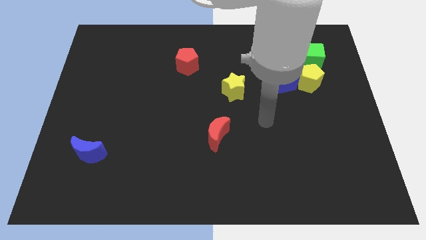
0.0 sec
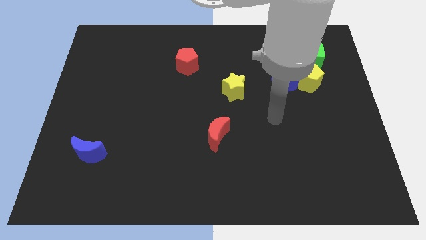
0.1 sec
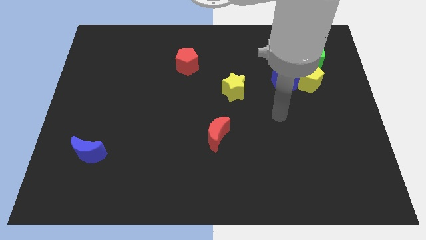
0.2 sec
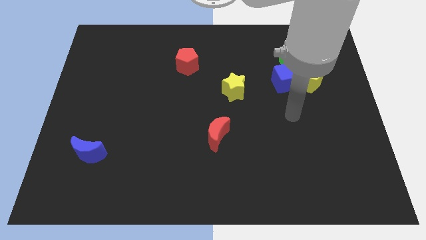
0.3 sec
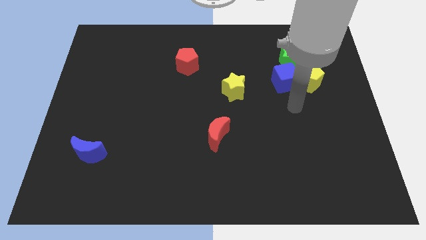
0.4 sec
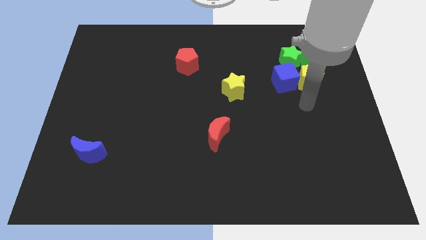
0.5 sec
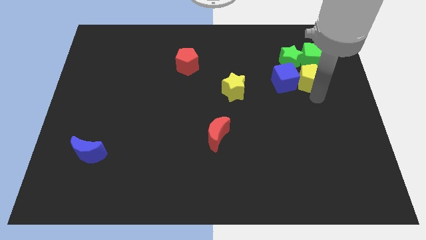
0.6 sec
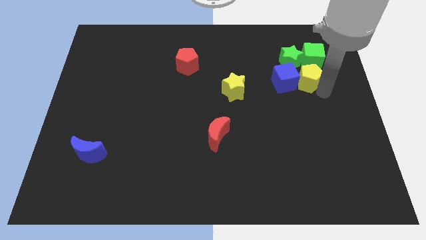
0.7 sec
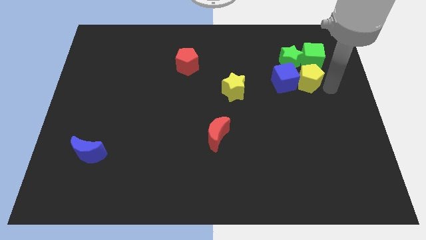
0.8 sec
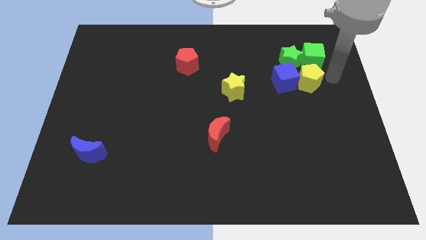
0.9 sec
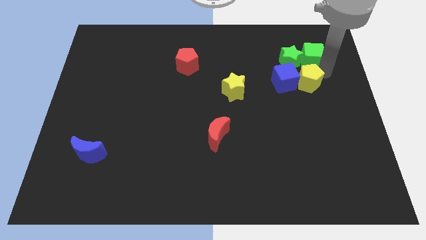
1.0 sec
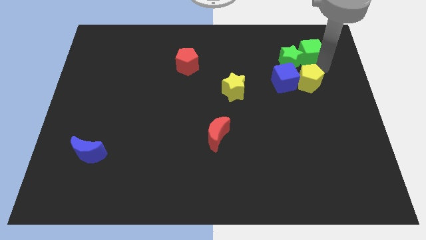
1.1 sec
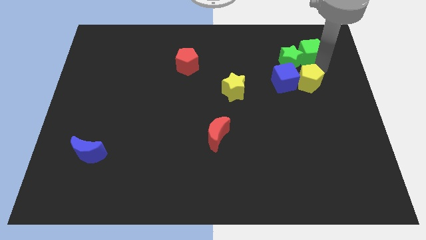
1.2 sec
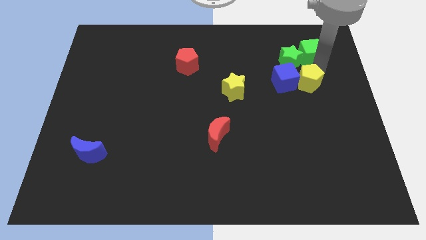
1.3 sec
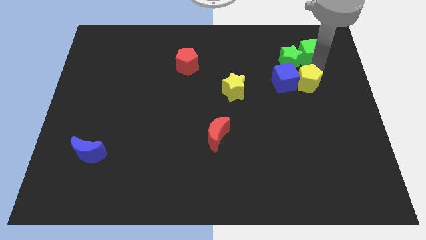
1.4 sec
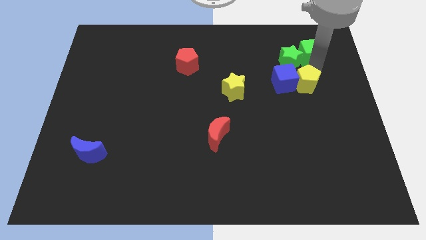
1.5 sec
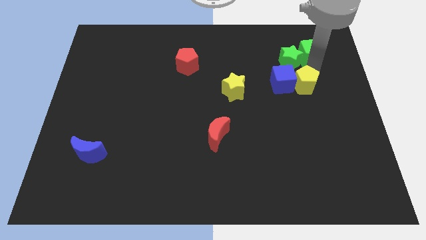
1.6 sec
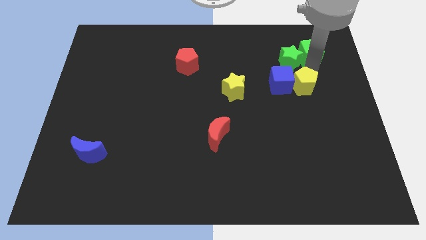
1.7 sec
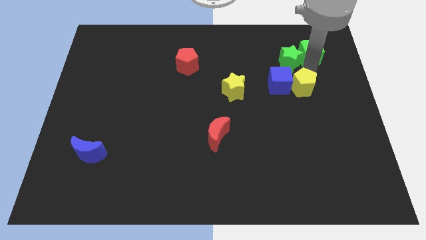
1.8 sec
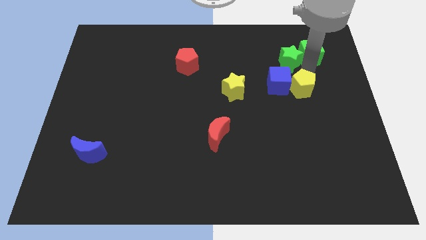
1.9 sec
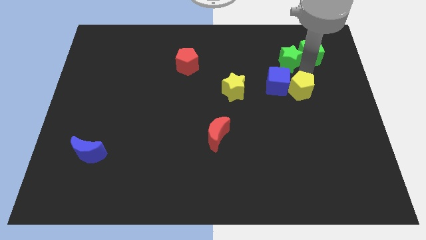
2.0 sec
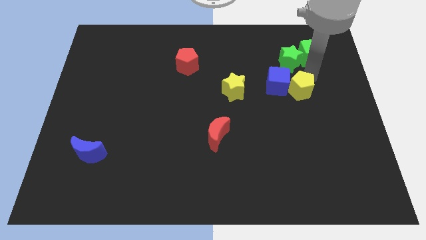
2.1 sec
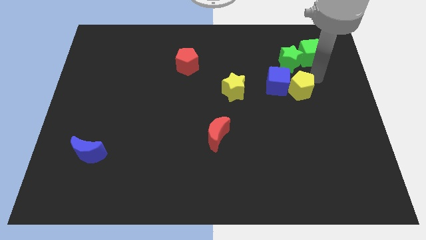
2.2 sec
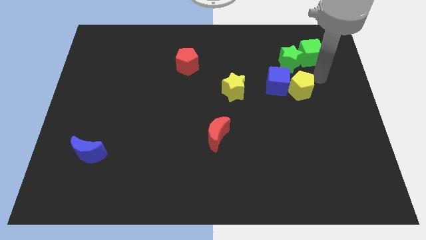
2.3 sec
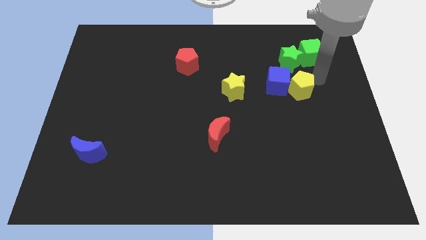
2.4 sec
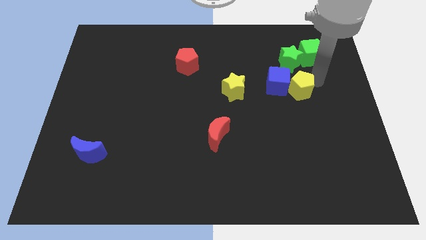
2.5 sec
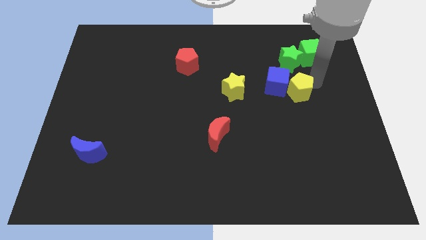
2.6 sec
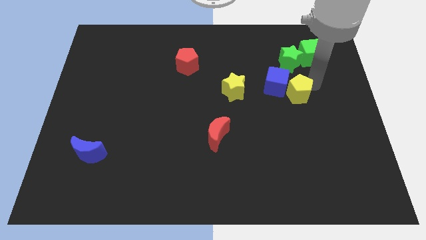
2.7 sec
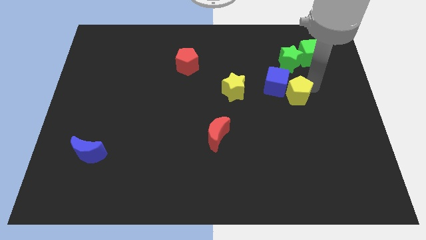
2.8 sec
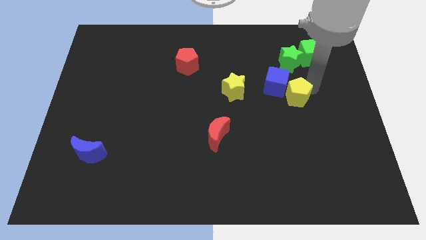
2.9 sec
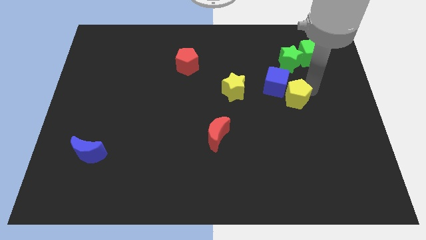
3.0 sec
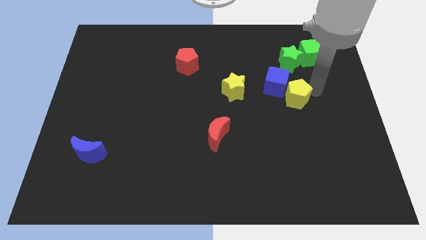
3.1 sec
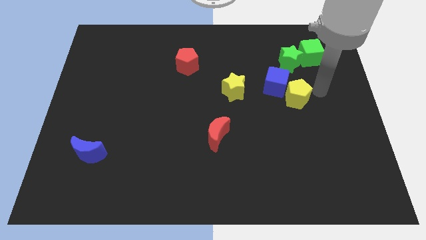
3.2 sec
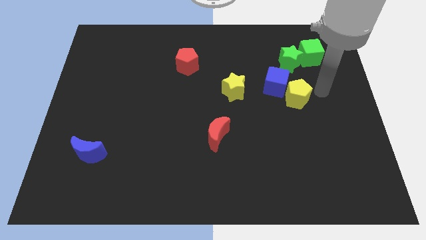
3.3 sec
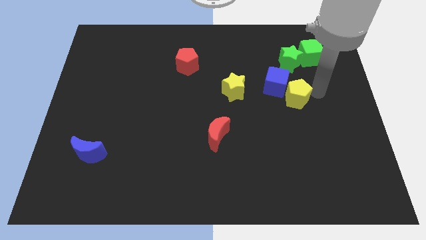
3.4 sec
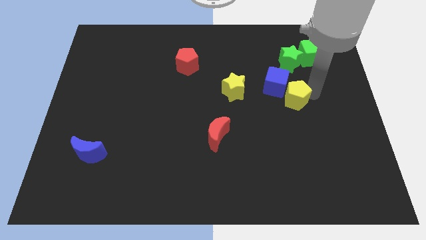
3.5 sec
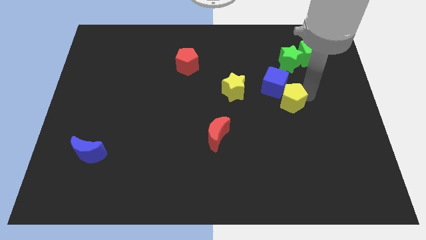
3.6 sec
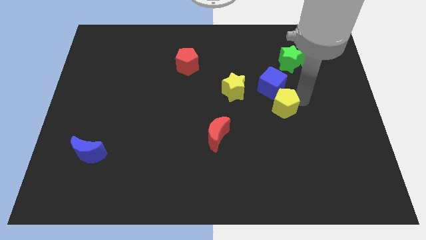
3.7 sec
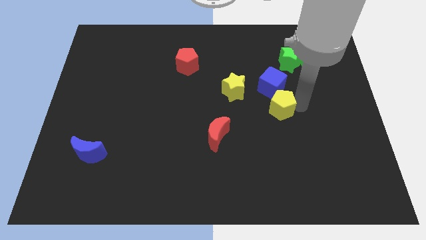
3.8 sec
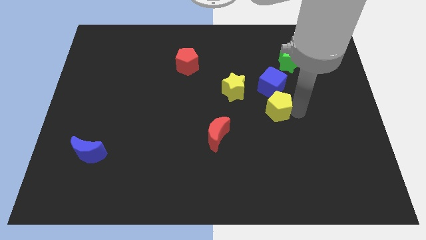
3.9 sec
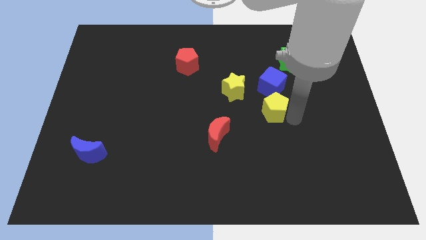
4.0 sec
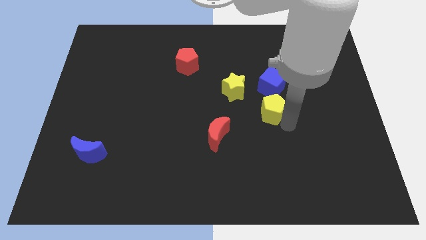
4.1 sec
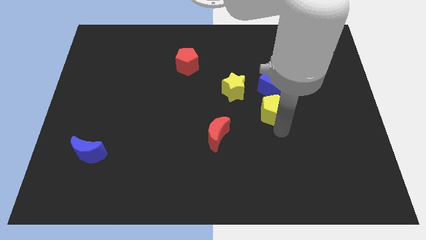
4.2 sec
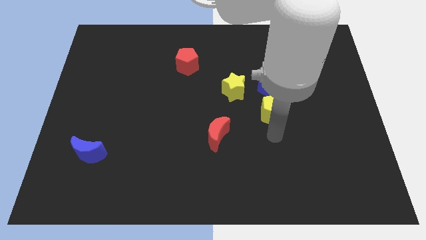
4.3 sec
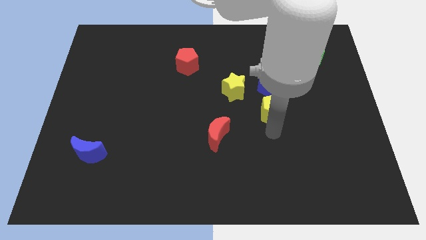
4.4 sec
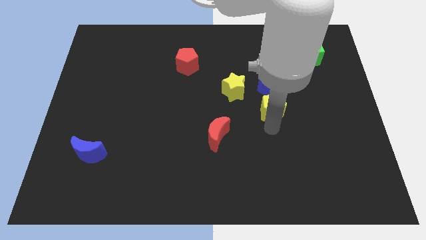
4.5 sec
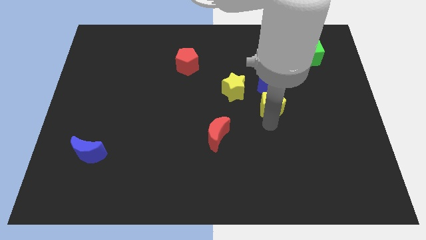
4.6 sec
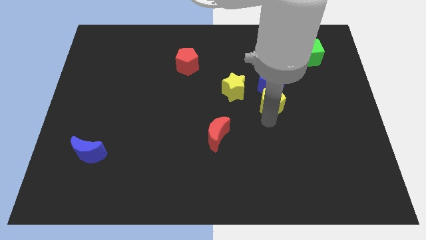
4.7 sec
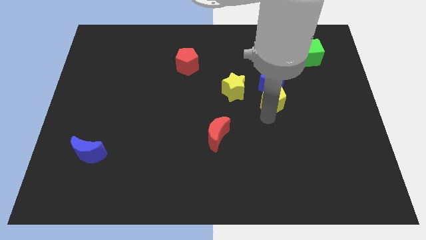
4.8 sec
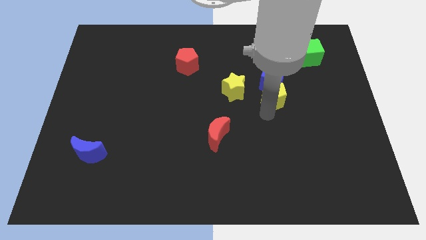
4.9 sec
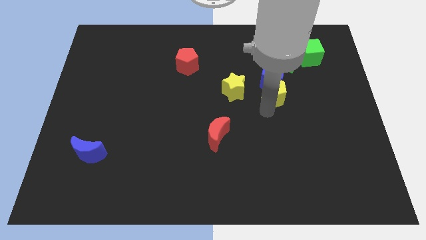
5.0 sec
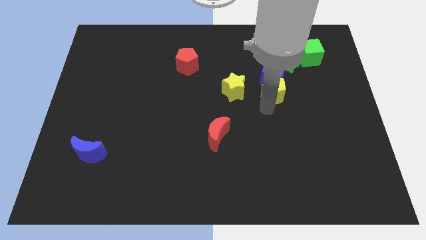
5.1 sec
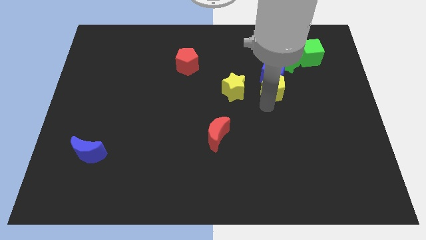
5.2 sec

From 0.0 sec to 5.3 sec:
slide the yellow pentagon to the bottom left side of the green star

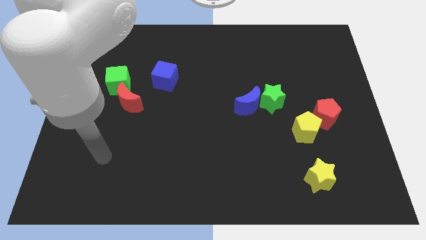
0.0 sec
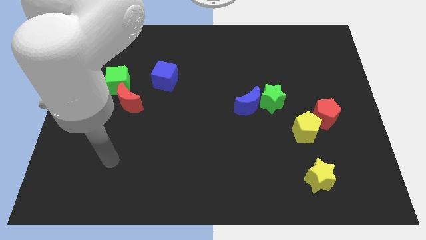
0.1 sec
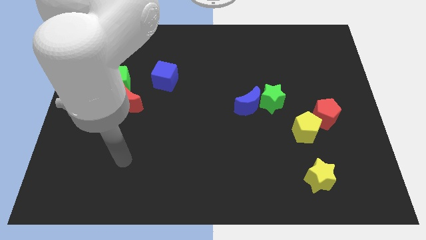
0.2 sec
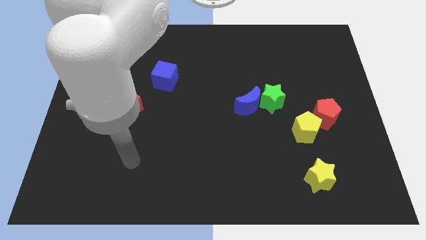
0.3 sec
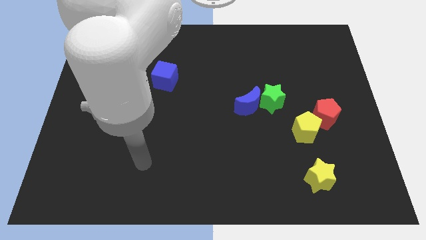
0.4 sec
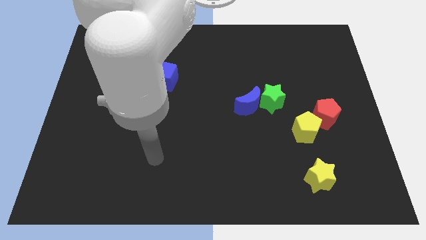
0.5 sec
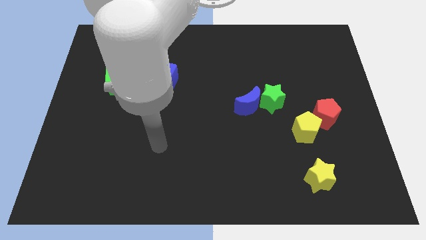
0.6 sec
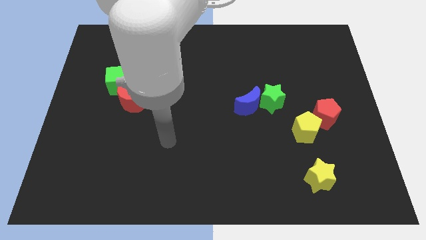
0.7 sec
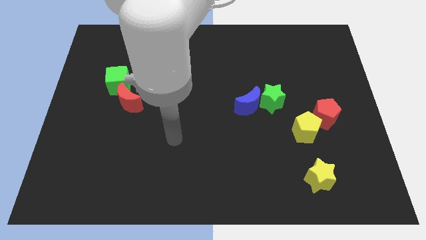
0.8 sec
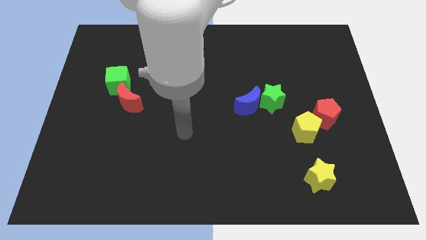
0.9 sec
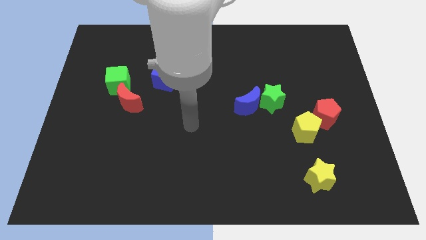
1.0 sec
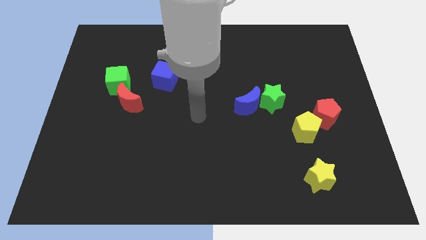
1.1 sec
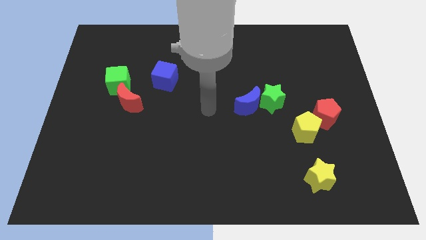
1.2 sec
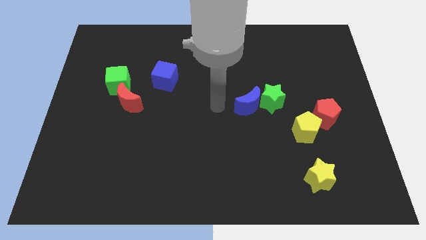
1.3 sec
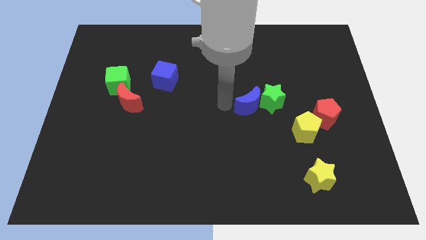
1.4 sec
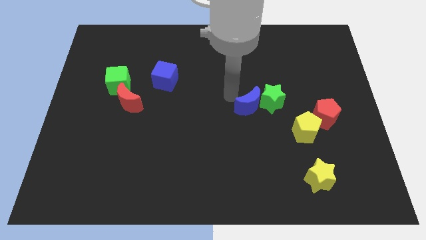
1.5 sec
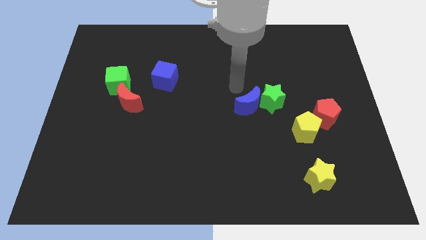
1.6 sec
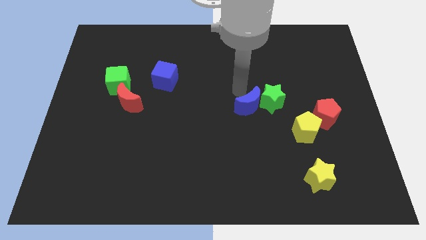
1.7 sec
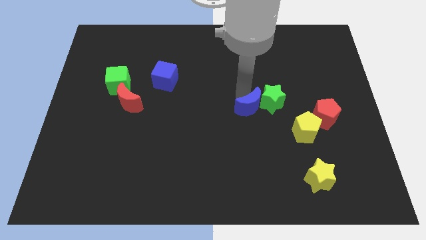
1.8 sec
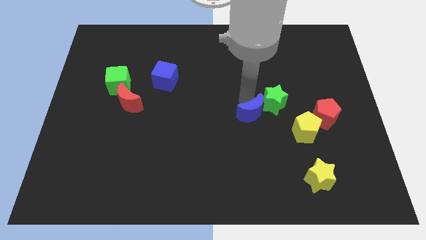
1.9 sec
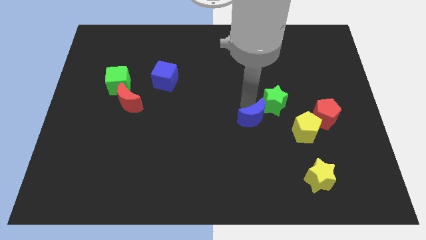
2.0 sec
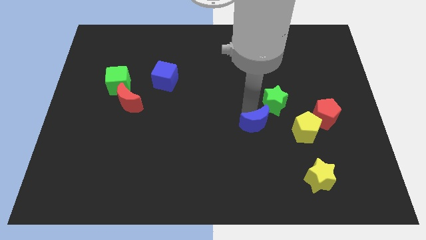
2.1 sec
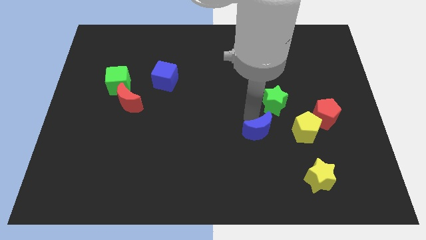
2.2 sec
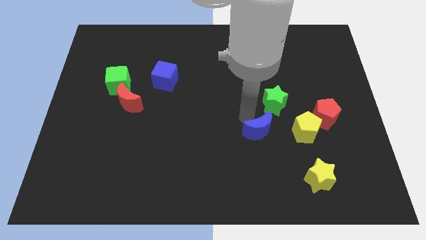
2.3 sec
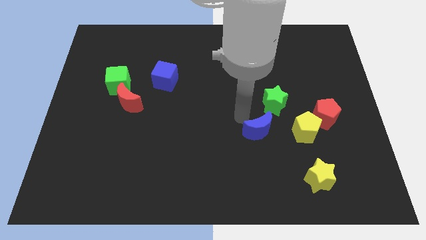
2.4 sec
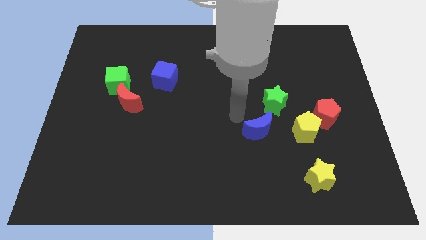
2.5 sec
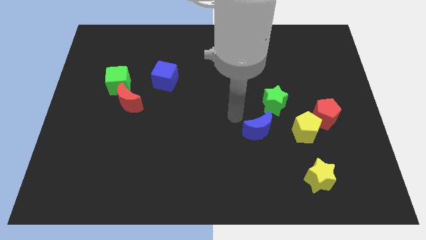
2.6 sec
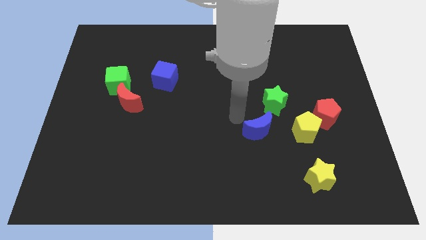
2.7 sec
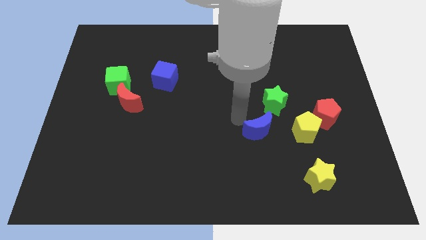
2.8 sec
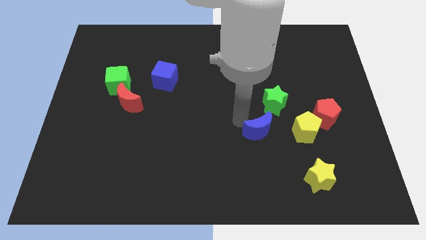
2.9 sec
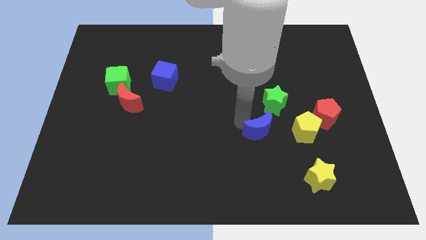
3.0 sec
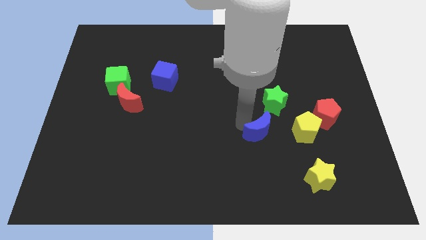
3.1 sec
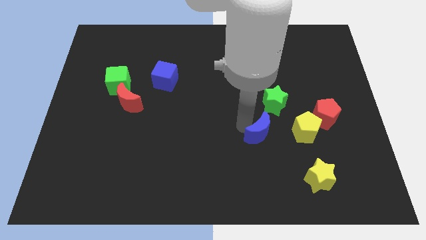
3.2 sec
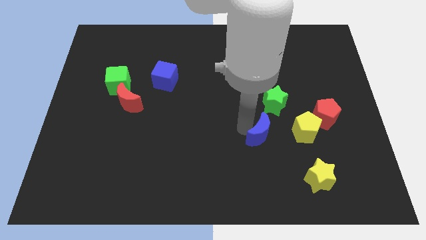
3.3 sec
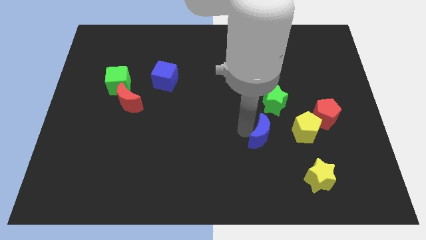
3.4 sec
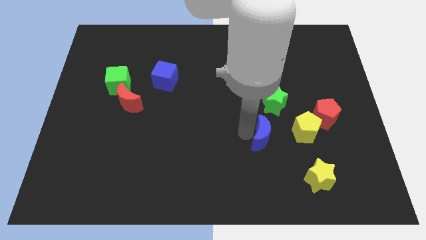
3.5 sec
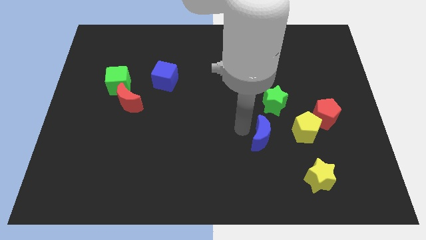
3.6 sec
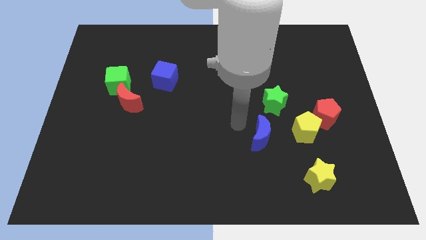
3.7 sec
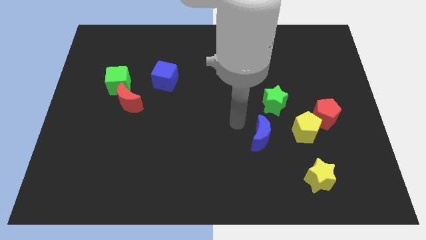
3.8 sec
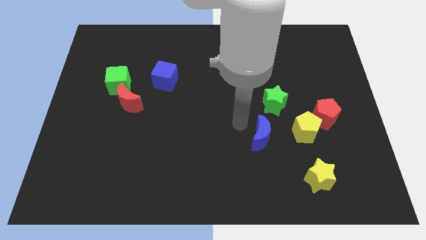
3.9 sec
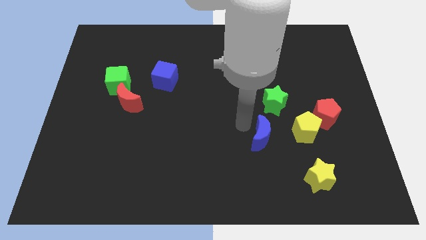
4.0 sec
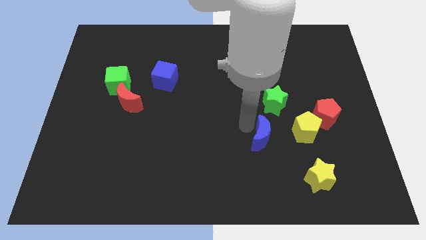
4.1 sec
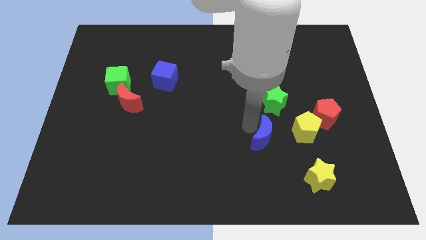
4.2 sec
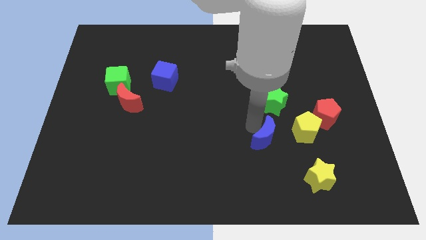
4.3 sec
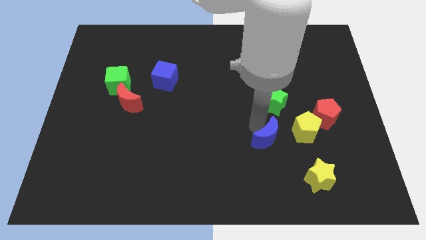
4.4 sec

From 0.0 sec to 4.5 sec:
move the blue moon to the bottom left of the yellow pentagon
